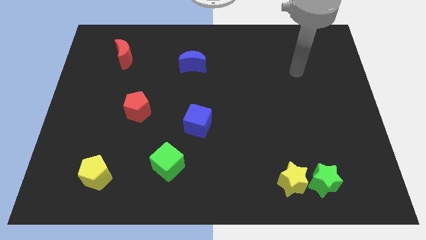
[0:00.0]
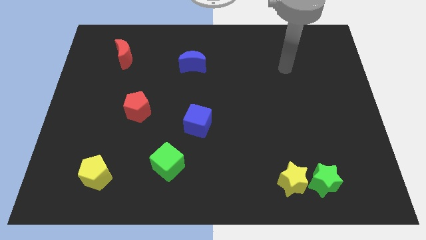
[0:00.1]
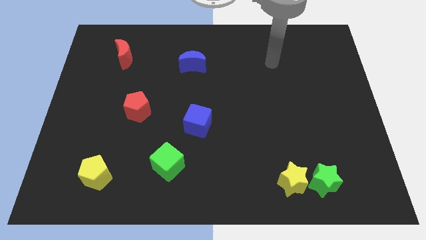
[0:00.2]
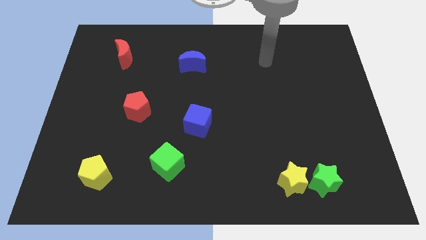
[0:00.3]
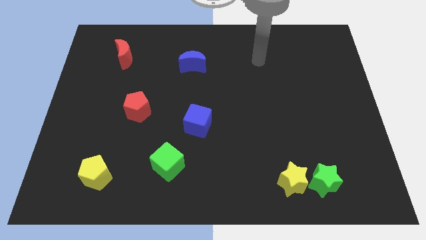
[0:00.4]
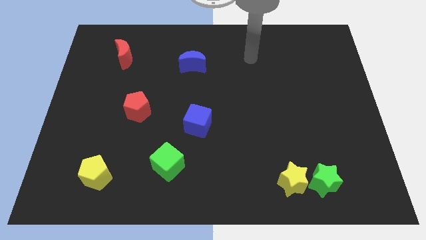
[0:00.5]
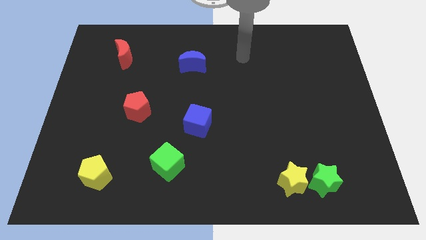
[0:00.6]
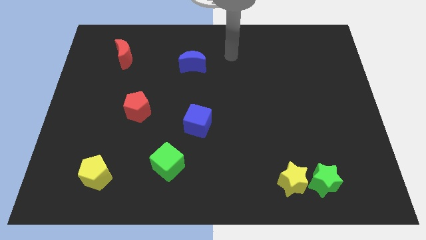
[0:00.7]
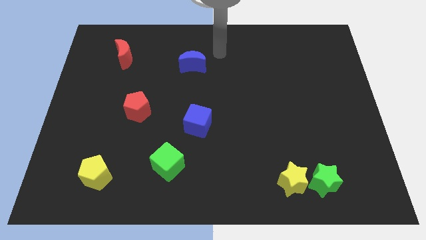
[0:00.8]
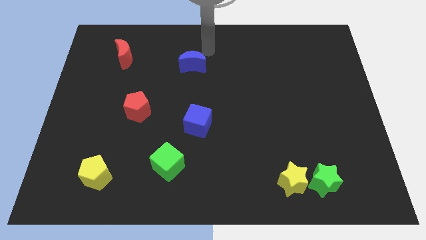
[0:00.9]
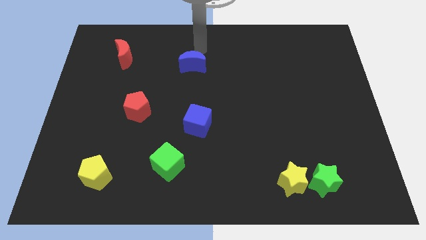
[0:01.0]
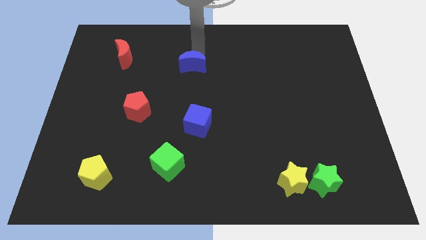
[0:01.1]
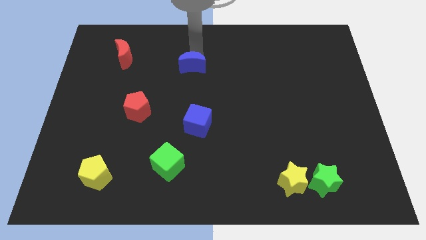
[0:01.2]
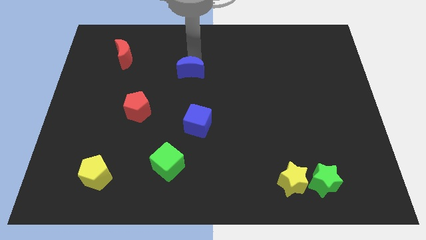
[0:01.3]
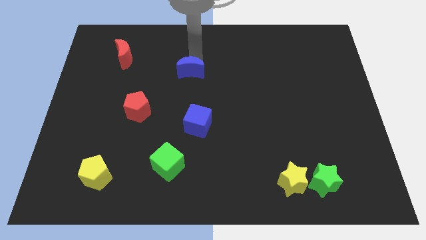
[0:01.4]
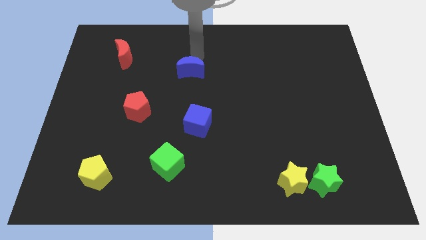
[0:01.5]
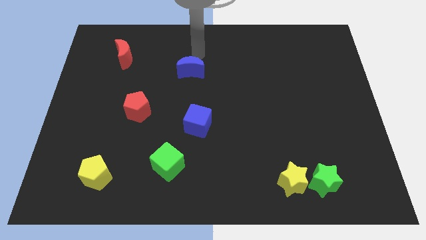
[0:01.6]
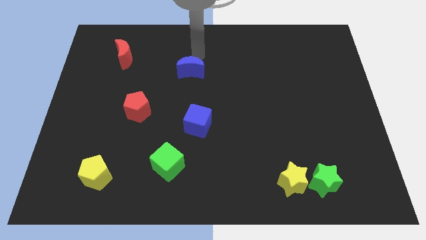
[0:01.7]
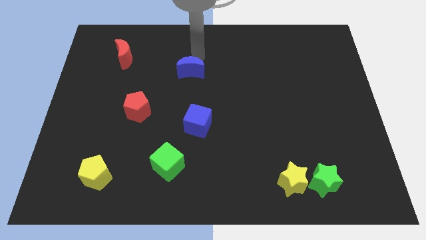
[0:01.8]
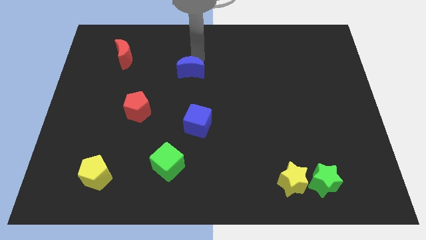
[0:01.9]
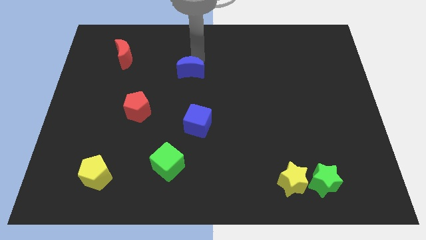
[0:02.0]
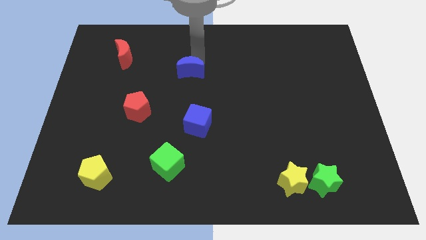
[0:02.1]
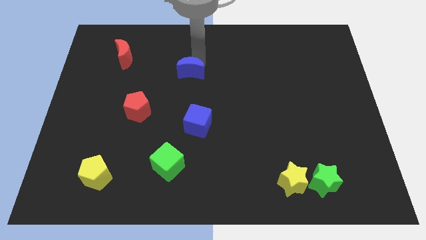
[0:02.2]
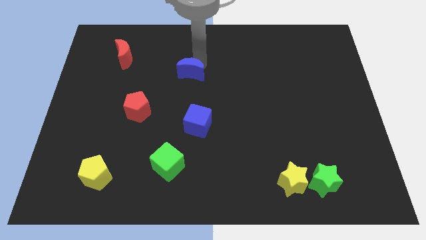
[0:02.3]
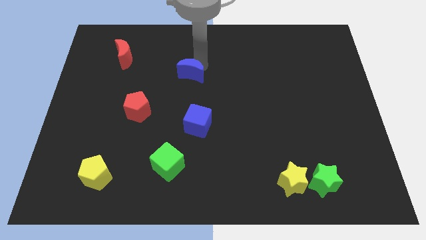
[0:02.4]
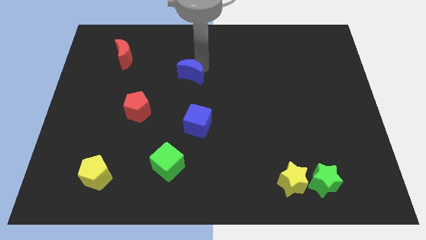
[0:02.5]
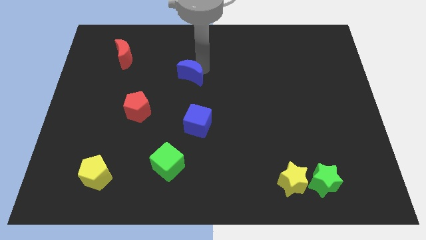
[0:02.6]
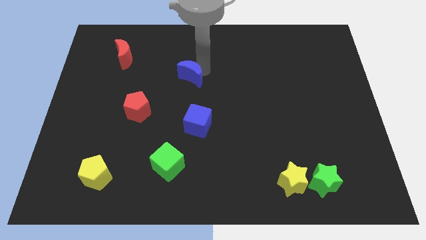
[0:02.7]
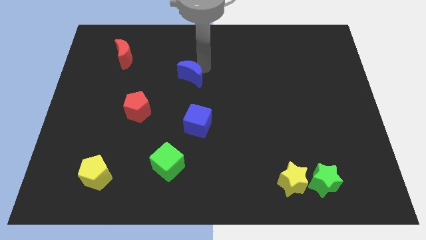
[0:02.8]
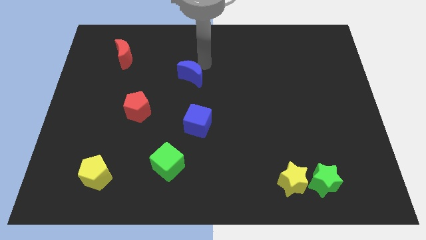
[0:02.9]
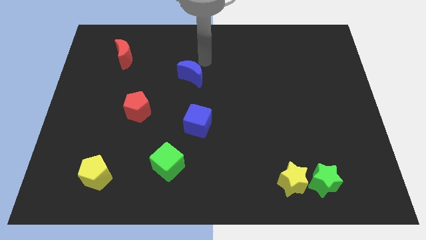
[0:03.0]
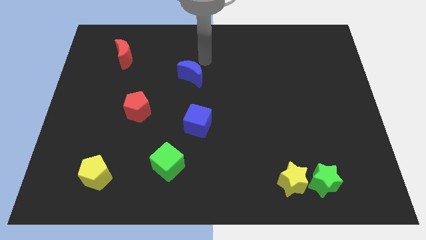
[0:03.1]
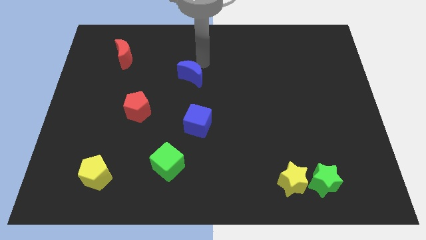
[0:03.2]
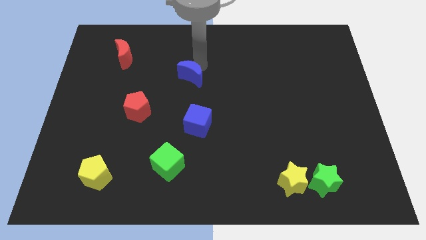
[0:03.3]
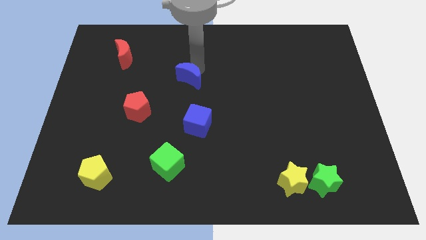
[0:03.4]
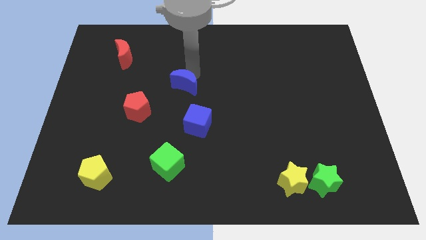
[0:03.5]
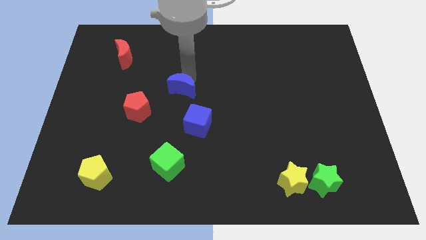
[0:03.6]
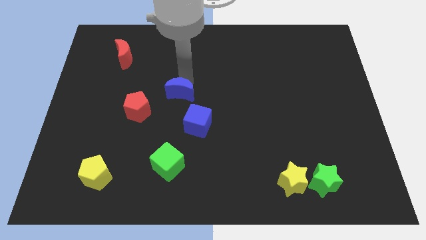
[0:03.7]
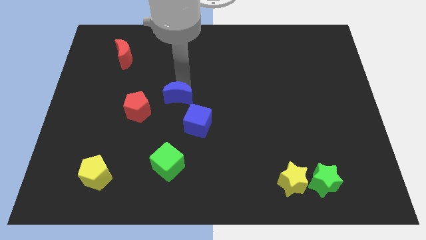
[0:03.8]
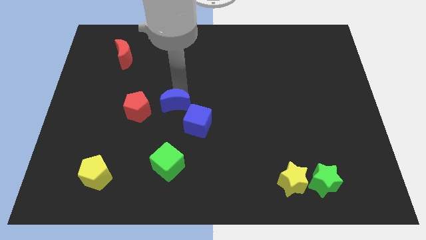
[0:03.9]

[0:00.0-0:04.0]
slide the blue moon to the top side of the green cube

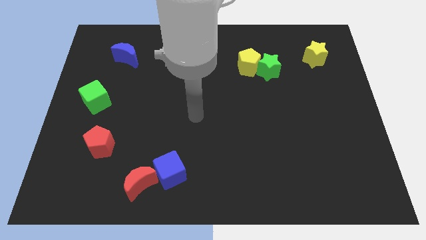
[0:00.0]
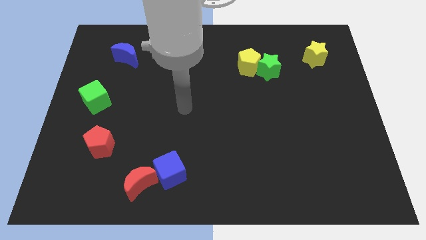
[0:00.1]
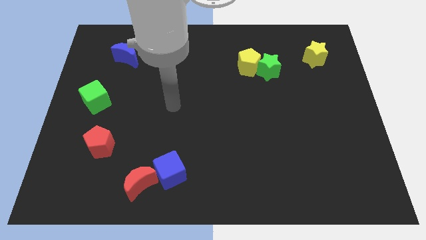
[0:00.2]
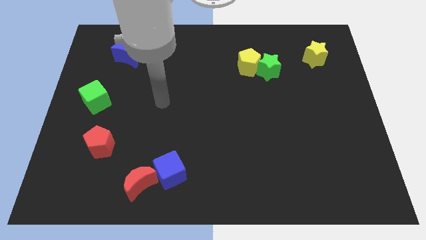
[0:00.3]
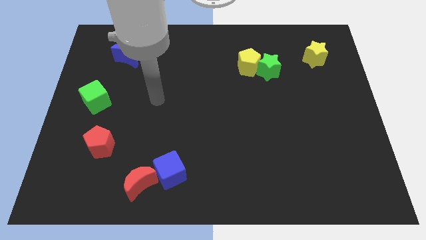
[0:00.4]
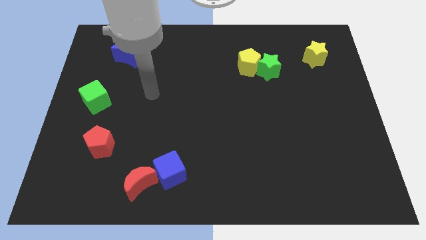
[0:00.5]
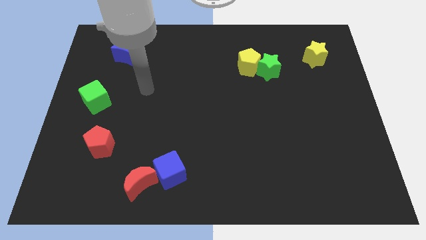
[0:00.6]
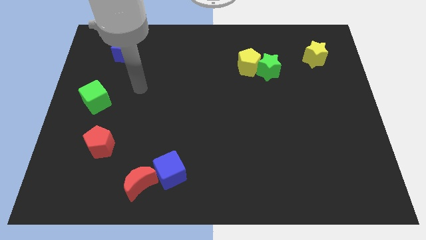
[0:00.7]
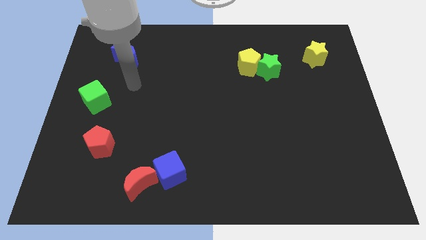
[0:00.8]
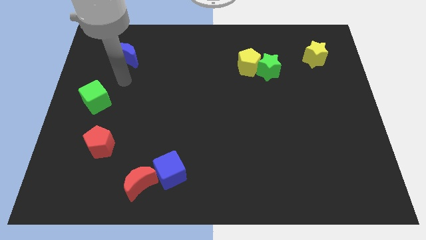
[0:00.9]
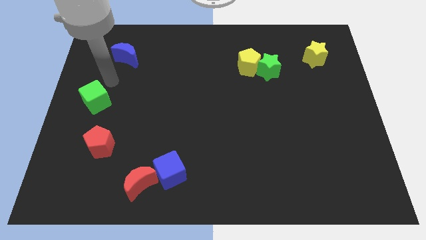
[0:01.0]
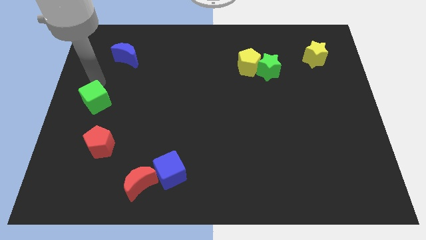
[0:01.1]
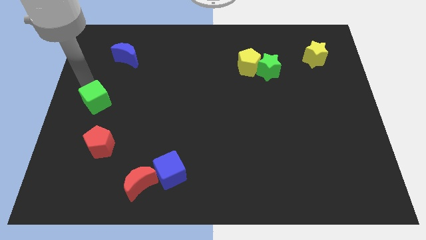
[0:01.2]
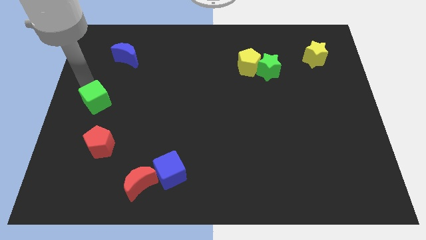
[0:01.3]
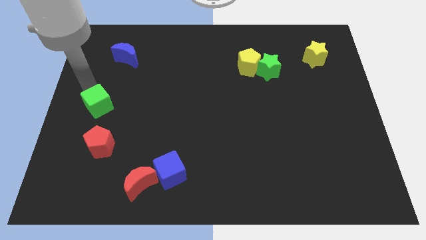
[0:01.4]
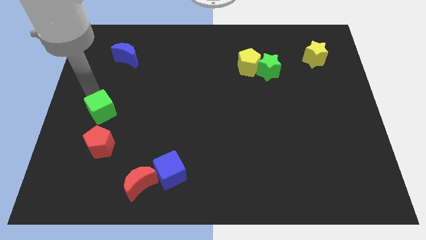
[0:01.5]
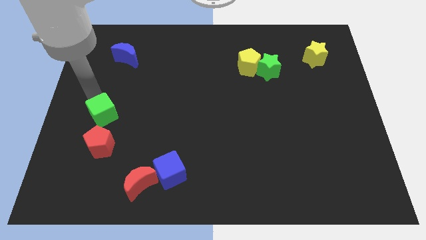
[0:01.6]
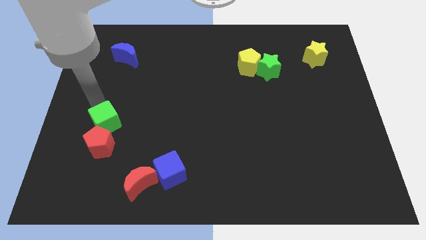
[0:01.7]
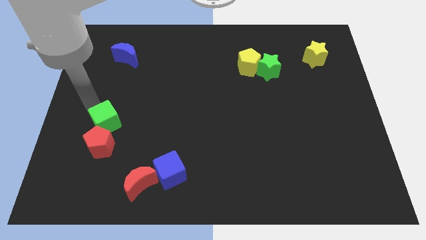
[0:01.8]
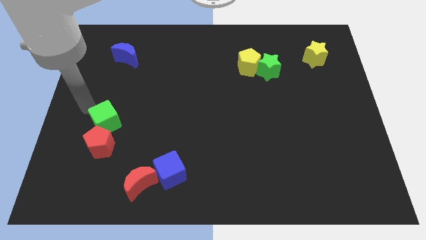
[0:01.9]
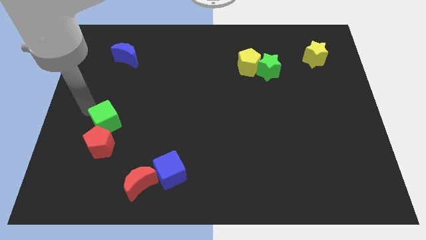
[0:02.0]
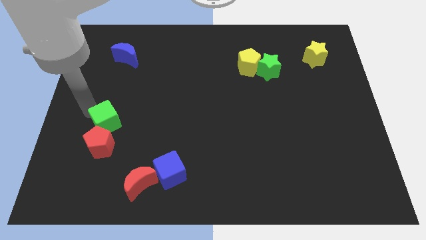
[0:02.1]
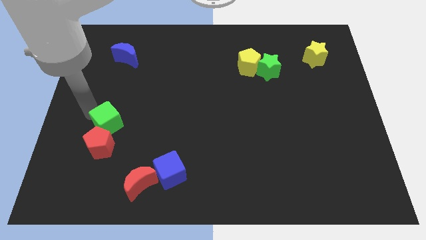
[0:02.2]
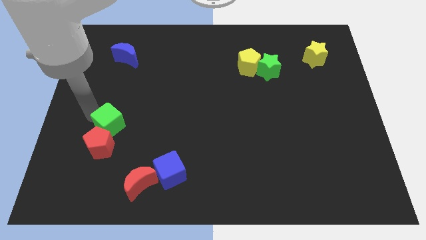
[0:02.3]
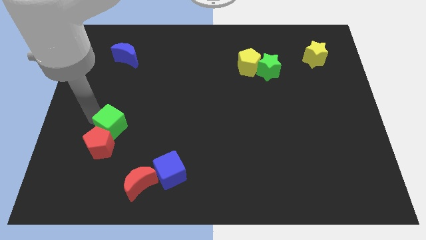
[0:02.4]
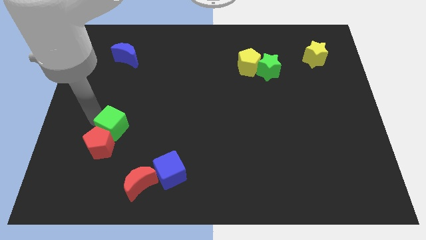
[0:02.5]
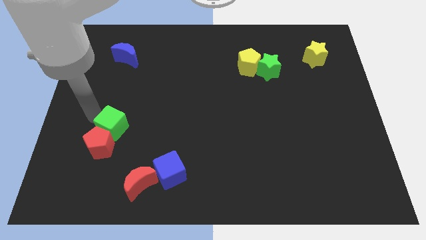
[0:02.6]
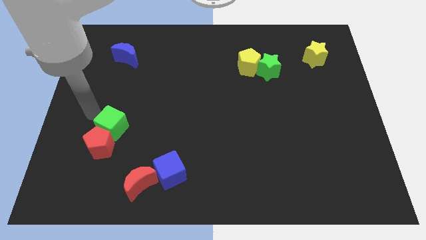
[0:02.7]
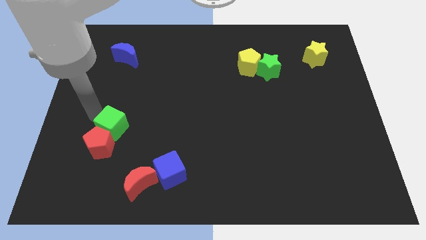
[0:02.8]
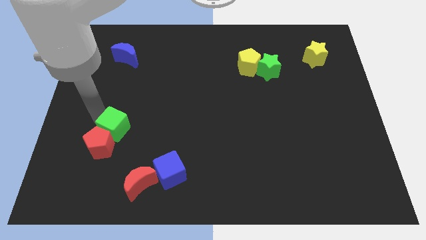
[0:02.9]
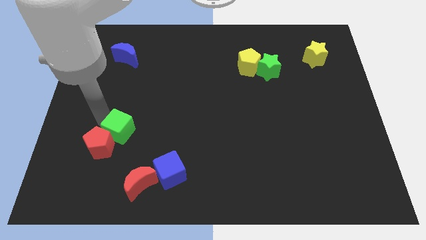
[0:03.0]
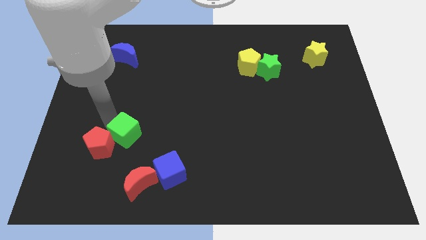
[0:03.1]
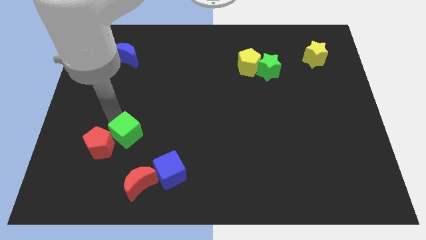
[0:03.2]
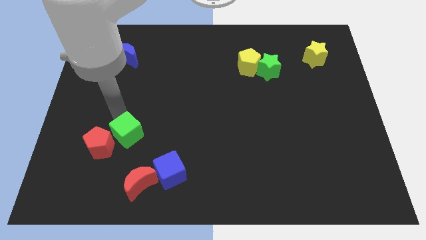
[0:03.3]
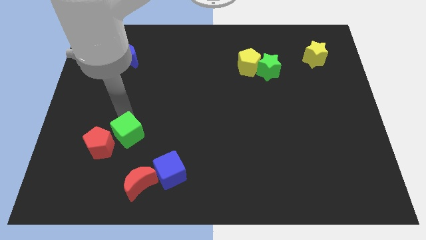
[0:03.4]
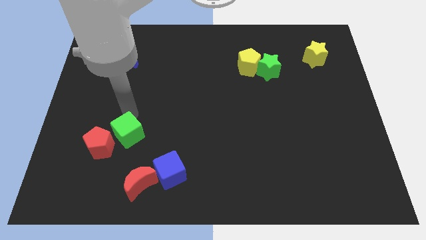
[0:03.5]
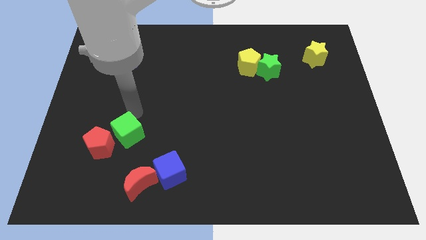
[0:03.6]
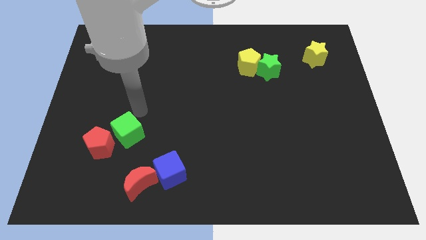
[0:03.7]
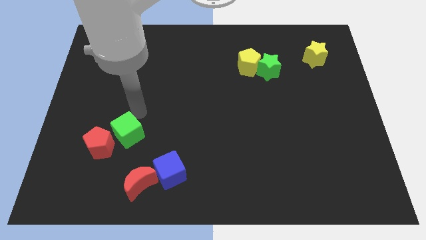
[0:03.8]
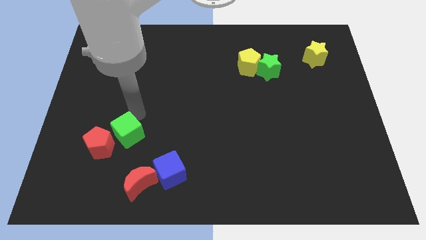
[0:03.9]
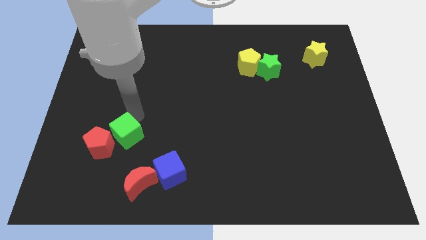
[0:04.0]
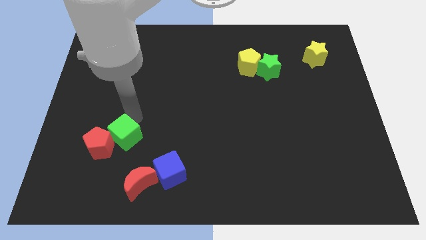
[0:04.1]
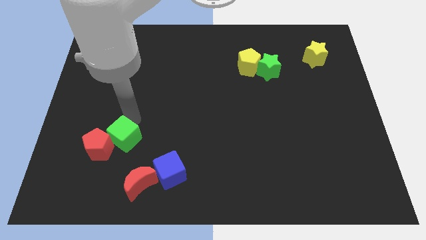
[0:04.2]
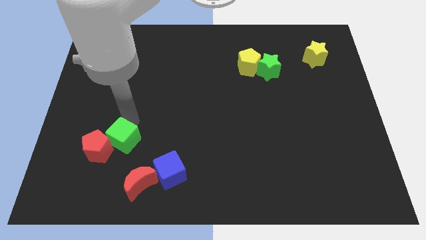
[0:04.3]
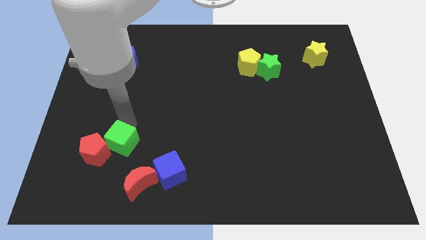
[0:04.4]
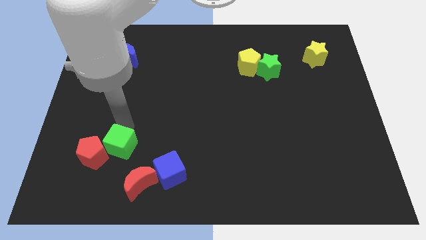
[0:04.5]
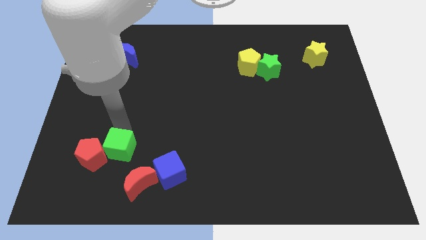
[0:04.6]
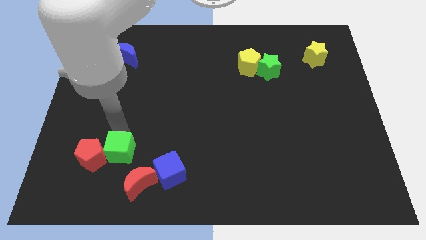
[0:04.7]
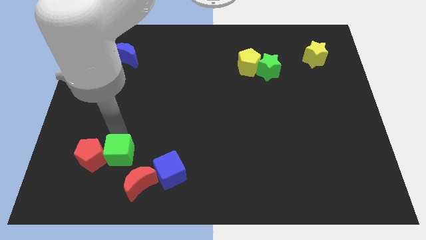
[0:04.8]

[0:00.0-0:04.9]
slide the green cube to the bottom right of the red pentagon
